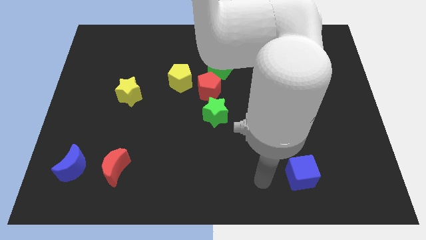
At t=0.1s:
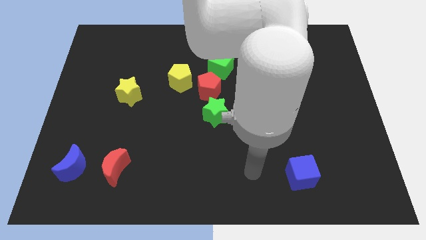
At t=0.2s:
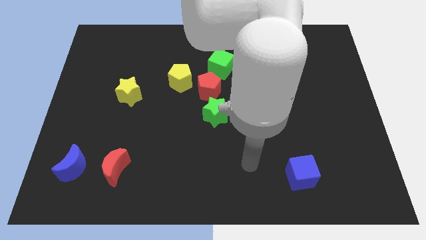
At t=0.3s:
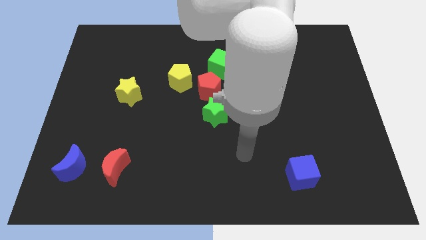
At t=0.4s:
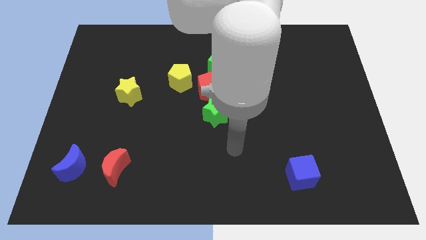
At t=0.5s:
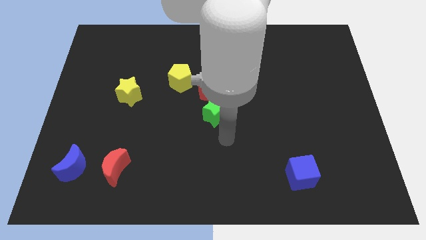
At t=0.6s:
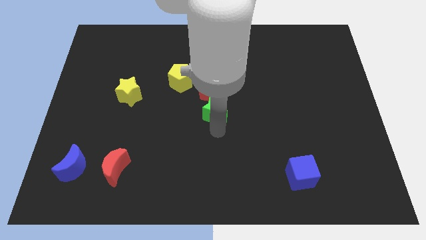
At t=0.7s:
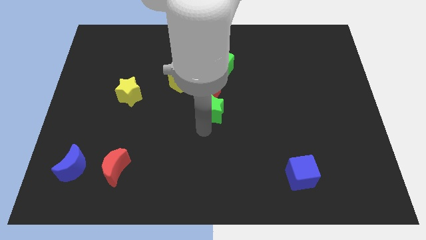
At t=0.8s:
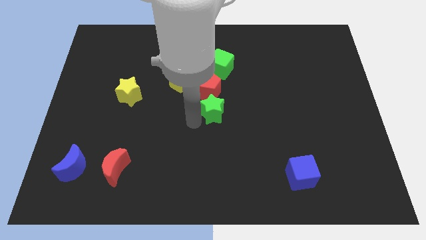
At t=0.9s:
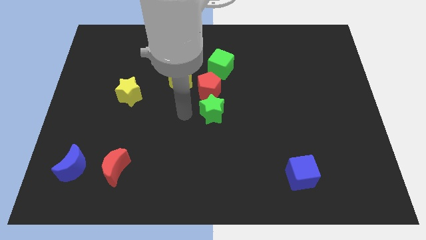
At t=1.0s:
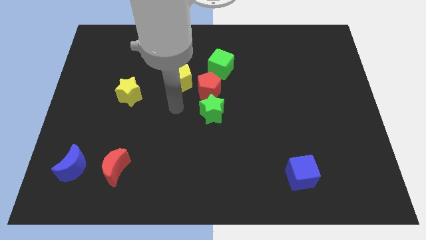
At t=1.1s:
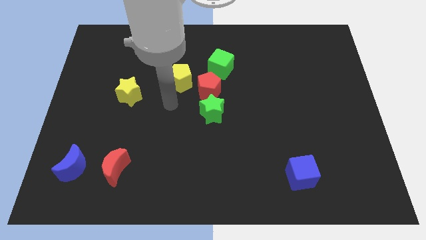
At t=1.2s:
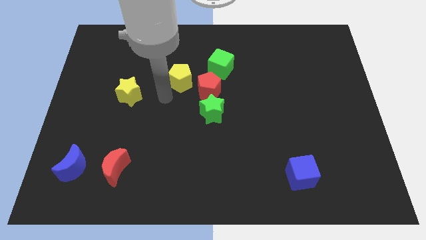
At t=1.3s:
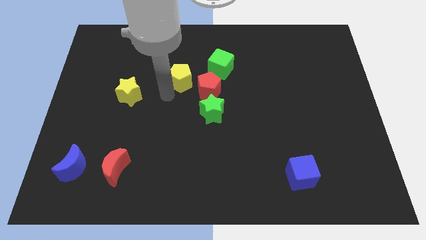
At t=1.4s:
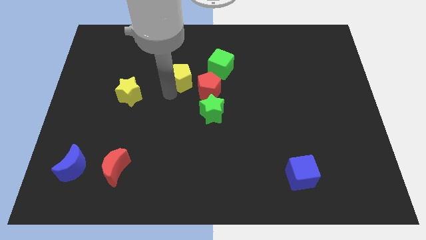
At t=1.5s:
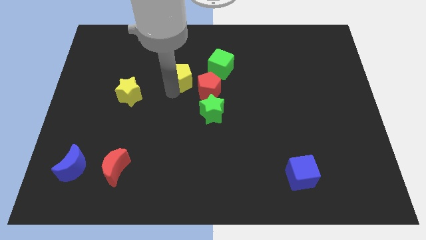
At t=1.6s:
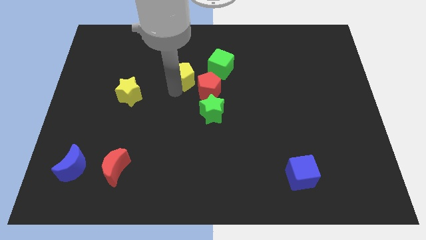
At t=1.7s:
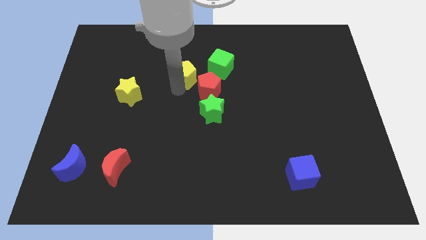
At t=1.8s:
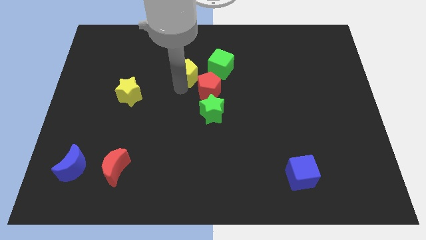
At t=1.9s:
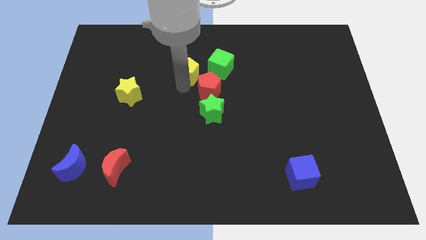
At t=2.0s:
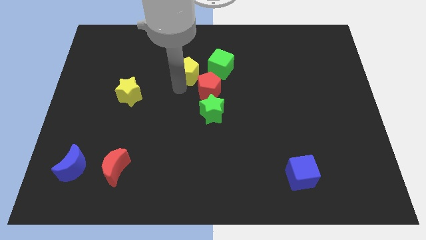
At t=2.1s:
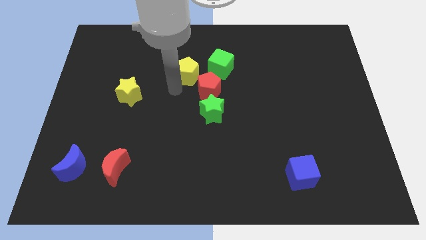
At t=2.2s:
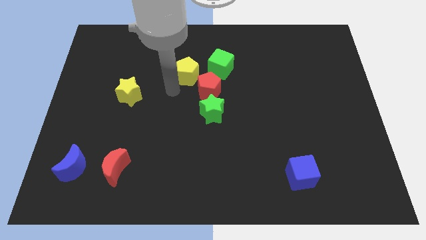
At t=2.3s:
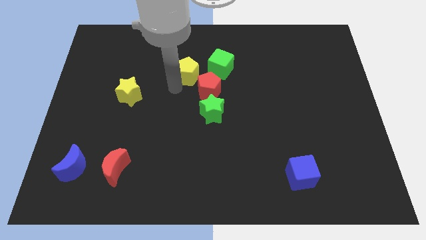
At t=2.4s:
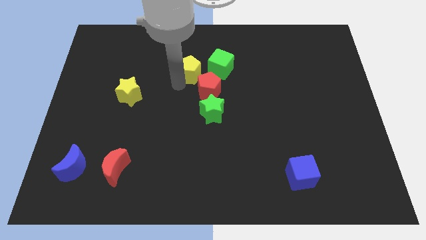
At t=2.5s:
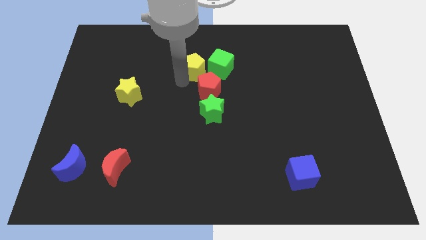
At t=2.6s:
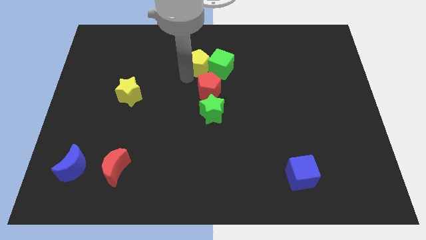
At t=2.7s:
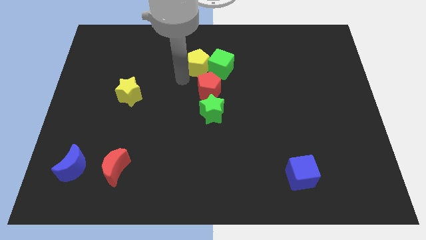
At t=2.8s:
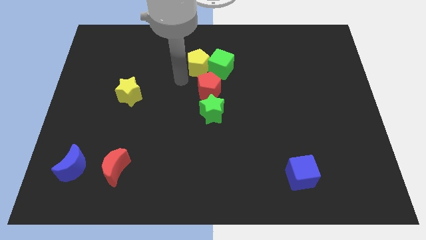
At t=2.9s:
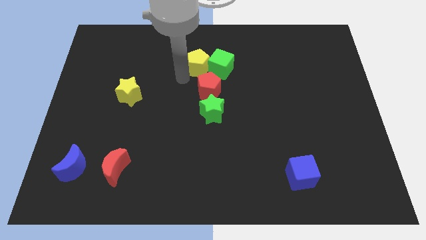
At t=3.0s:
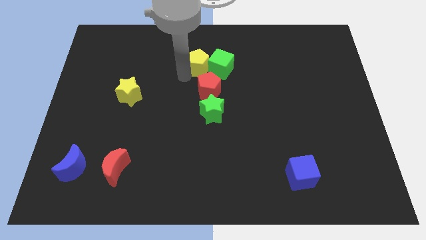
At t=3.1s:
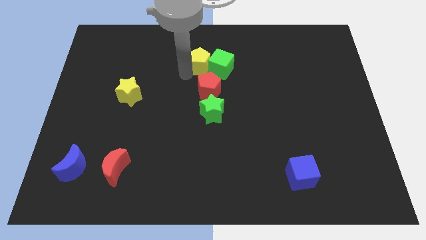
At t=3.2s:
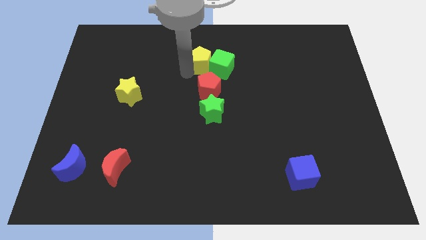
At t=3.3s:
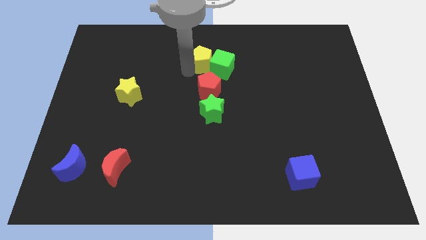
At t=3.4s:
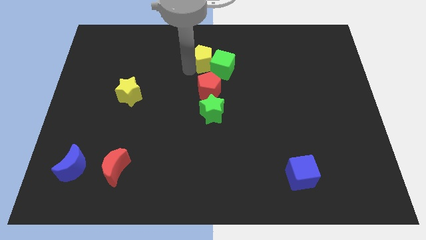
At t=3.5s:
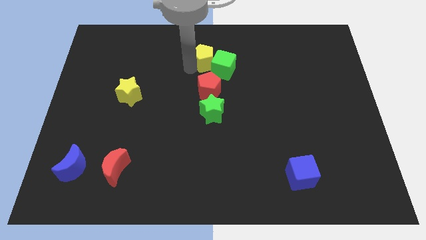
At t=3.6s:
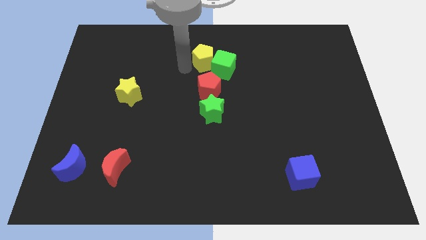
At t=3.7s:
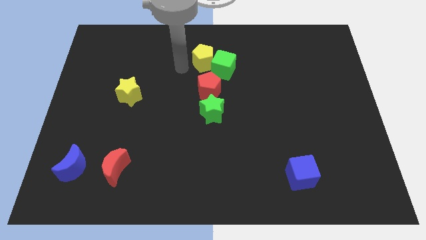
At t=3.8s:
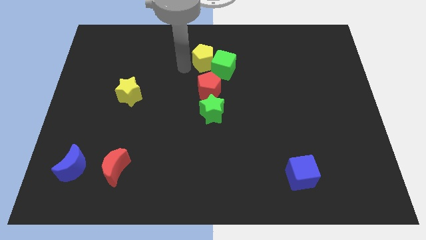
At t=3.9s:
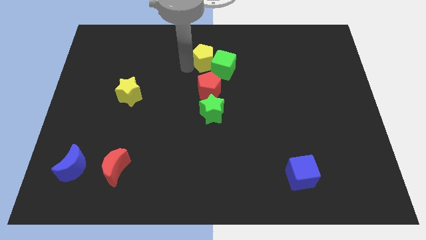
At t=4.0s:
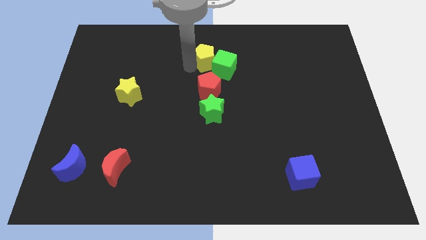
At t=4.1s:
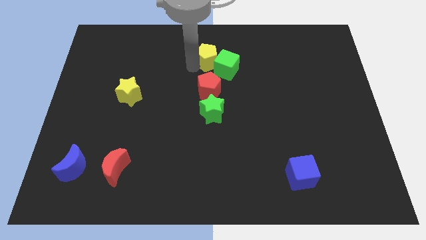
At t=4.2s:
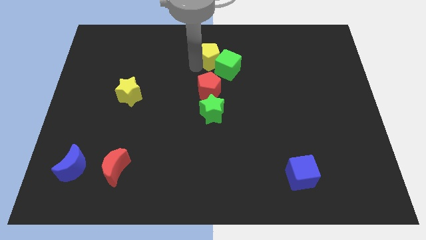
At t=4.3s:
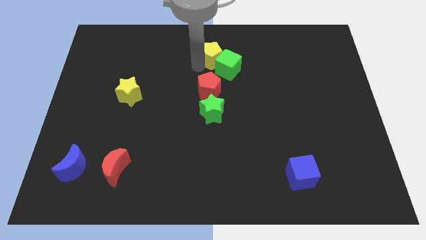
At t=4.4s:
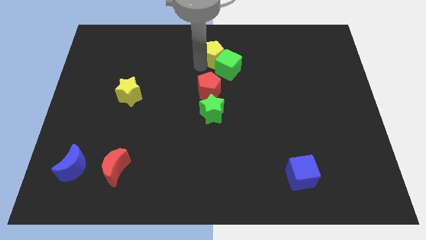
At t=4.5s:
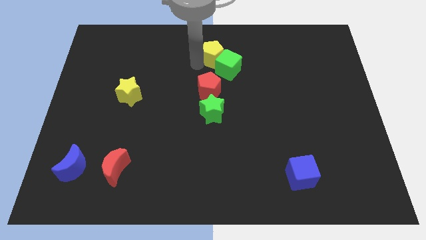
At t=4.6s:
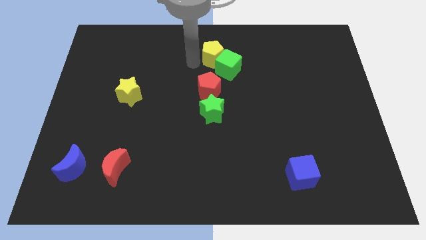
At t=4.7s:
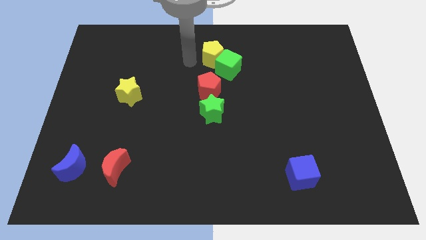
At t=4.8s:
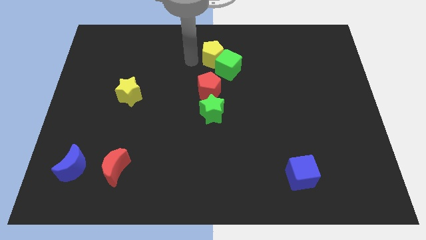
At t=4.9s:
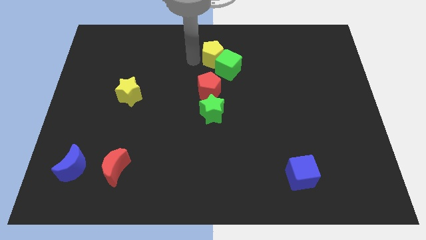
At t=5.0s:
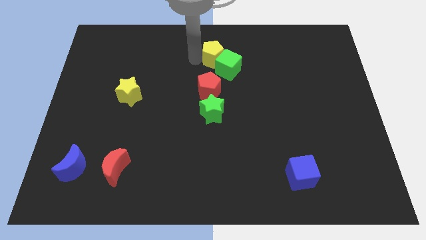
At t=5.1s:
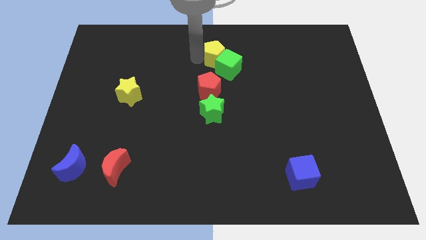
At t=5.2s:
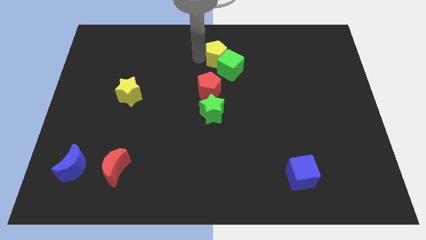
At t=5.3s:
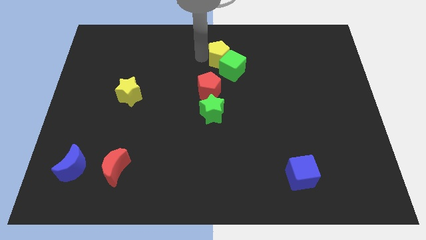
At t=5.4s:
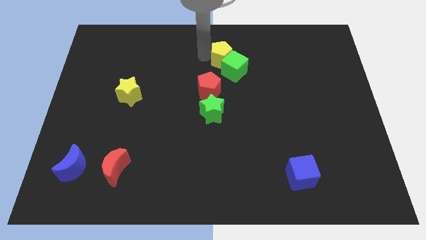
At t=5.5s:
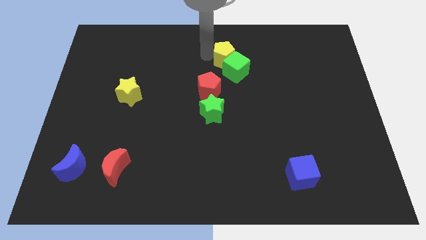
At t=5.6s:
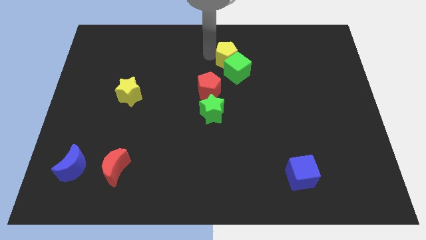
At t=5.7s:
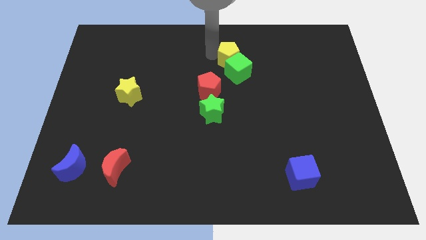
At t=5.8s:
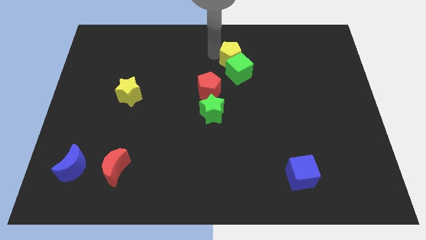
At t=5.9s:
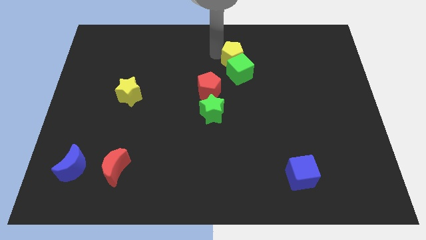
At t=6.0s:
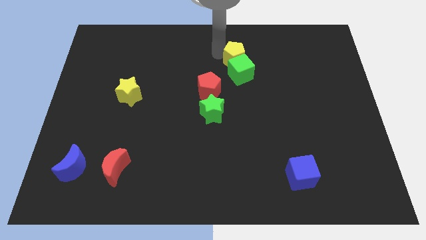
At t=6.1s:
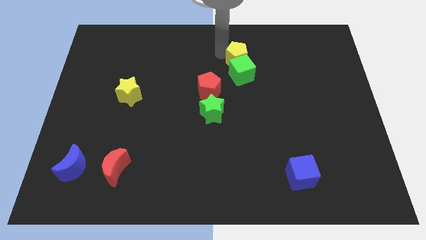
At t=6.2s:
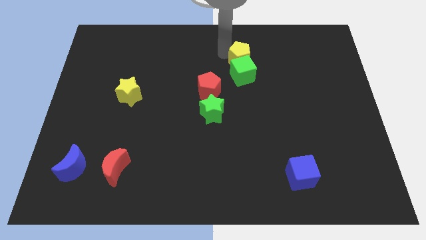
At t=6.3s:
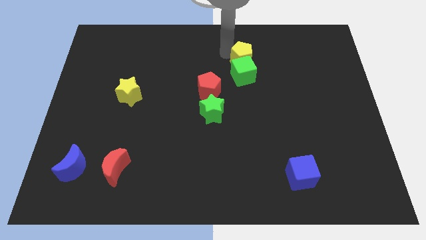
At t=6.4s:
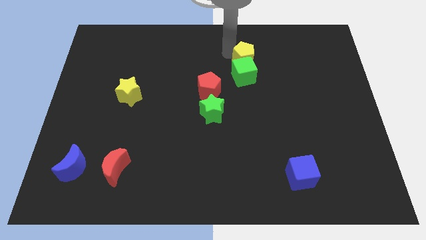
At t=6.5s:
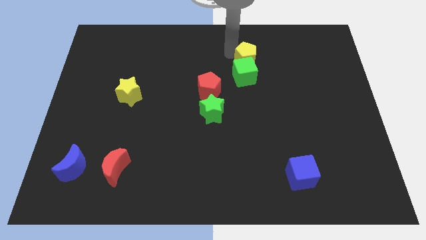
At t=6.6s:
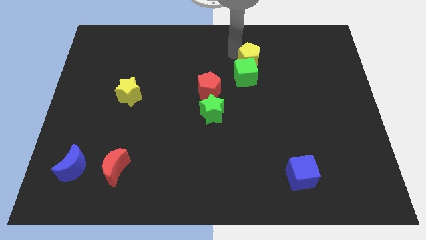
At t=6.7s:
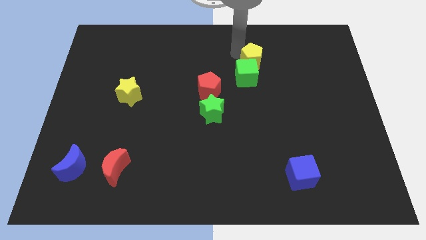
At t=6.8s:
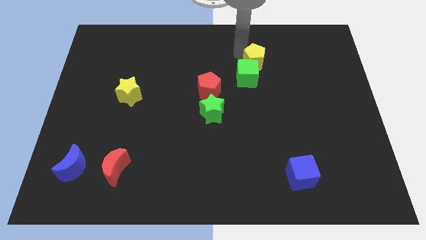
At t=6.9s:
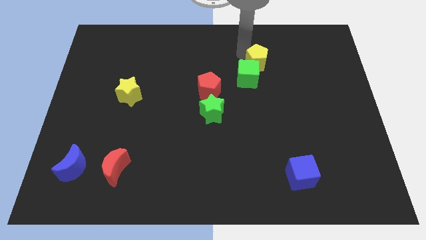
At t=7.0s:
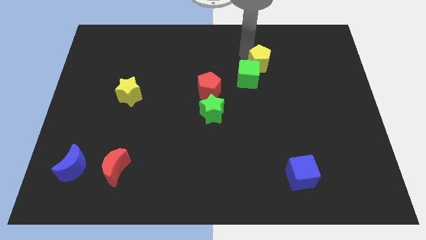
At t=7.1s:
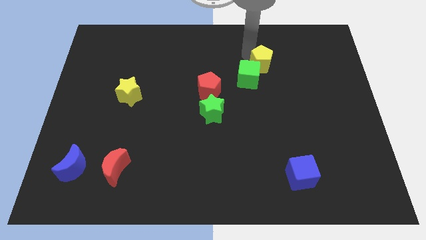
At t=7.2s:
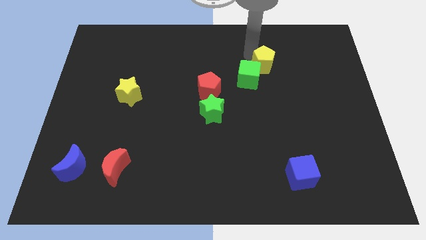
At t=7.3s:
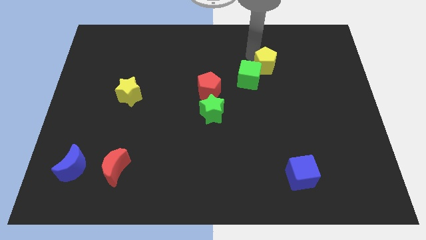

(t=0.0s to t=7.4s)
slide the yellow pentagon to the right

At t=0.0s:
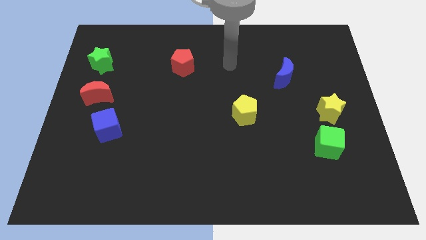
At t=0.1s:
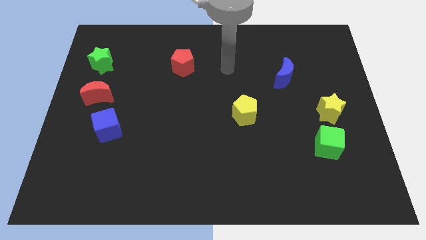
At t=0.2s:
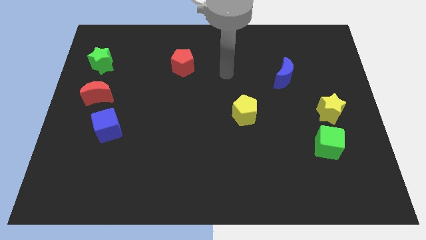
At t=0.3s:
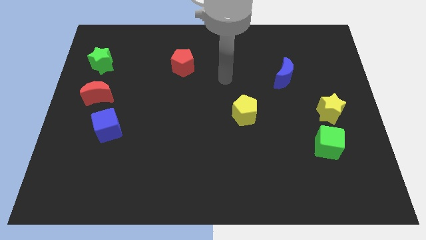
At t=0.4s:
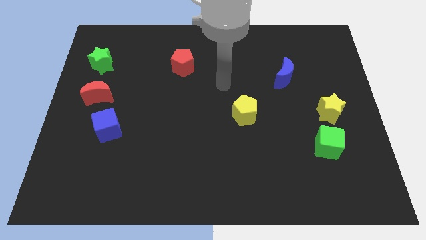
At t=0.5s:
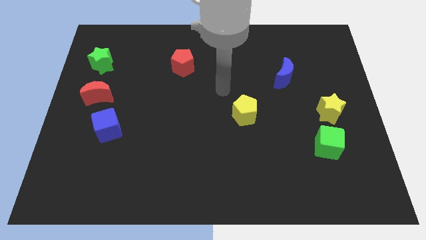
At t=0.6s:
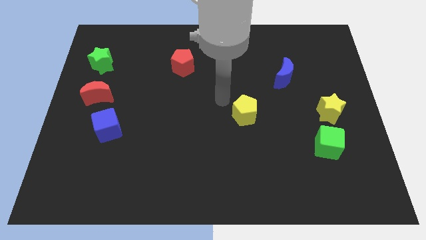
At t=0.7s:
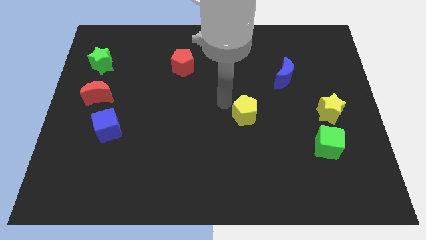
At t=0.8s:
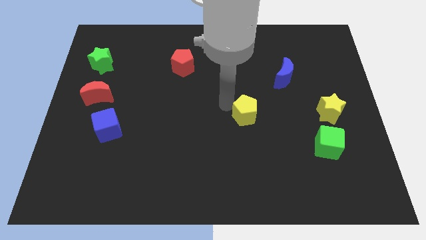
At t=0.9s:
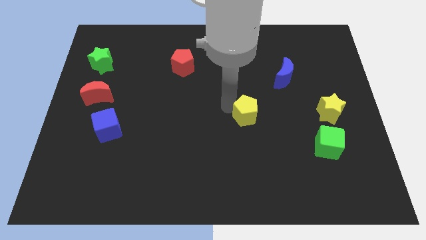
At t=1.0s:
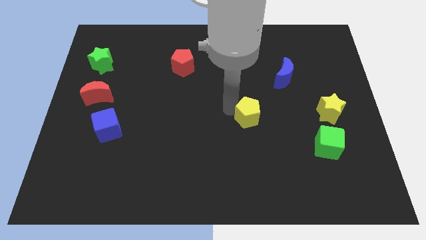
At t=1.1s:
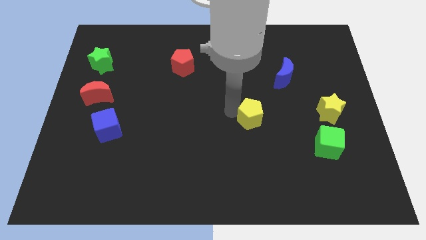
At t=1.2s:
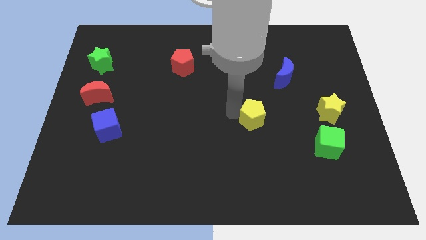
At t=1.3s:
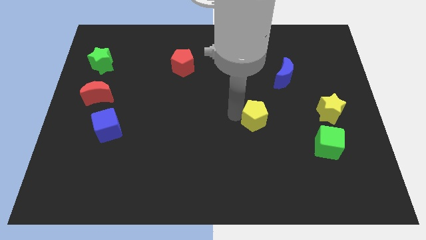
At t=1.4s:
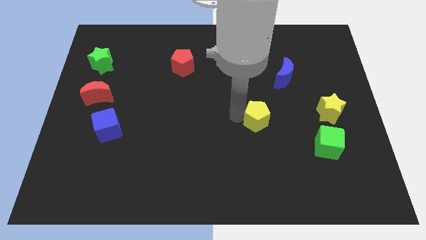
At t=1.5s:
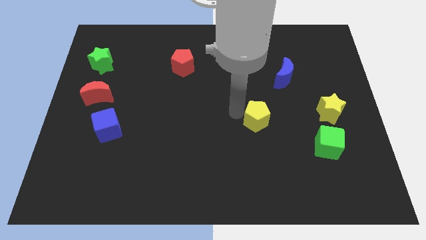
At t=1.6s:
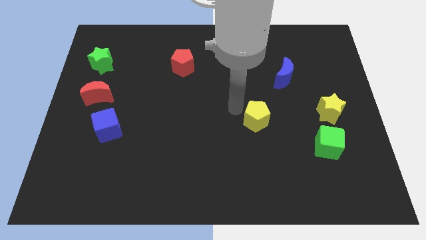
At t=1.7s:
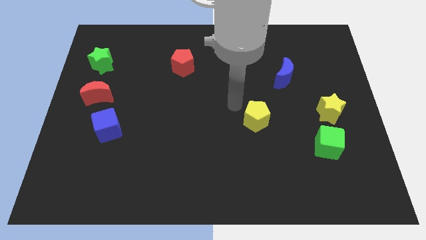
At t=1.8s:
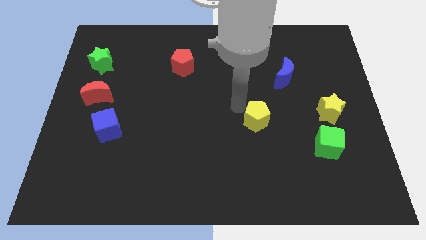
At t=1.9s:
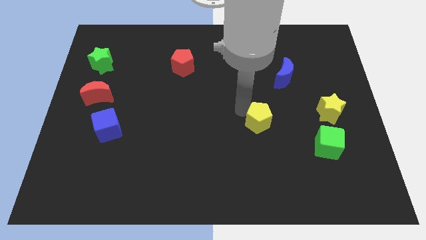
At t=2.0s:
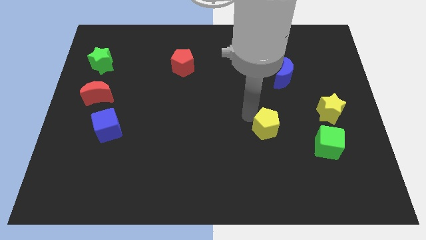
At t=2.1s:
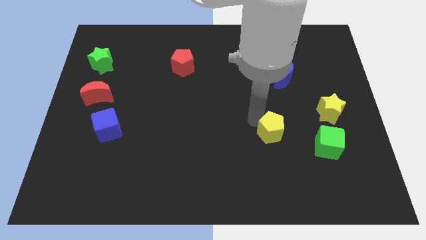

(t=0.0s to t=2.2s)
slightly move the yellow pentagon downwards and then to the right
